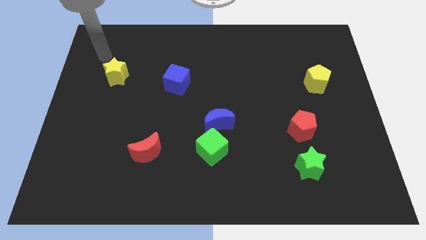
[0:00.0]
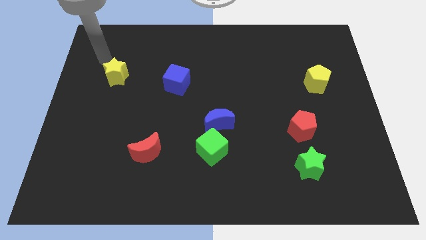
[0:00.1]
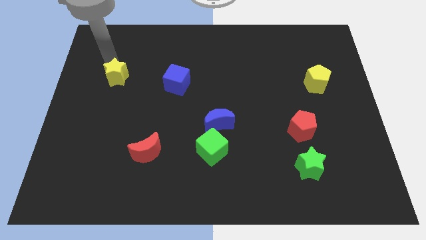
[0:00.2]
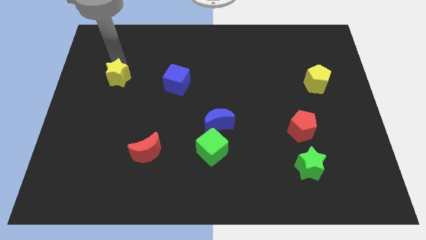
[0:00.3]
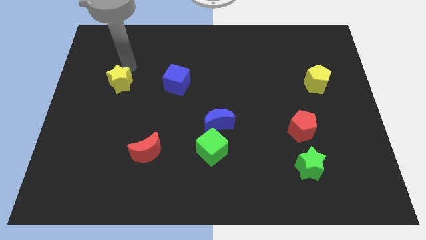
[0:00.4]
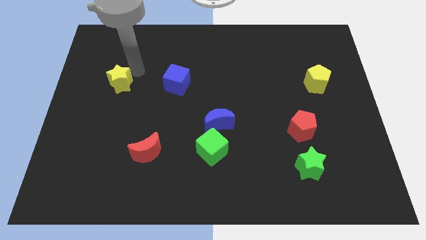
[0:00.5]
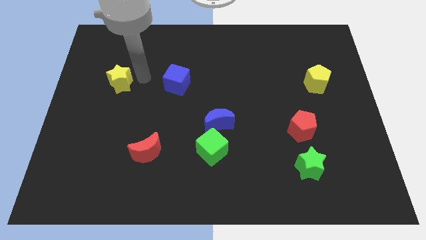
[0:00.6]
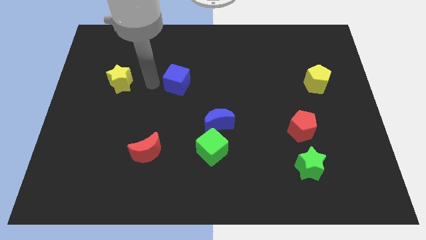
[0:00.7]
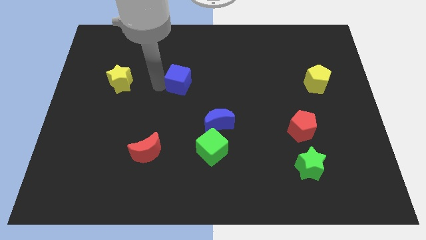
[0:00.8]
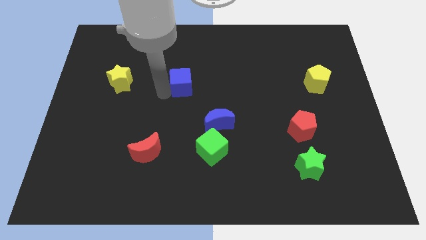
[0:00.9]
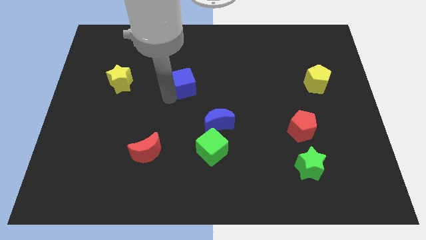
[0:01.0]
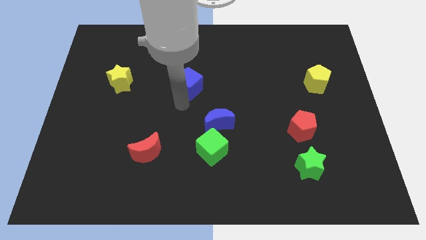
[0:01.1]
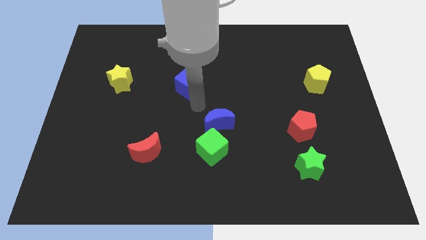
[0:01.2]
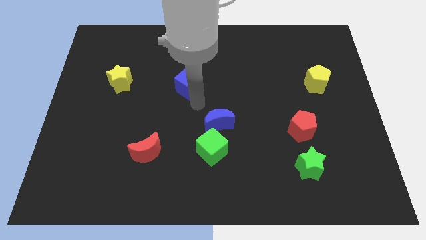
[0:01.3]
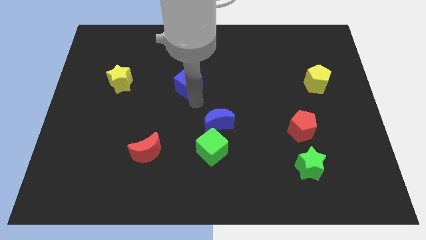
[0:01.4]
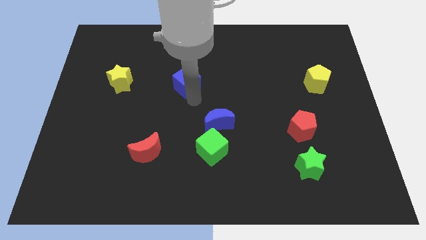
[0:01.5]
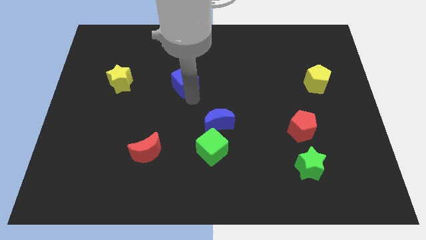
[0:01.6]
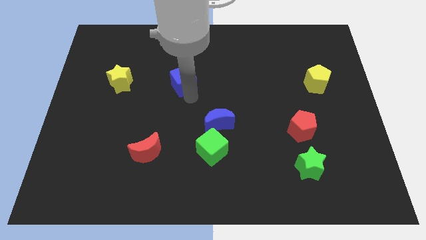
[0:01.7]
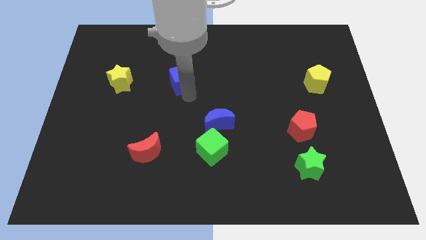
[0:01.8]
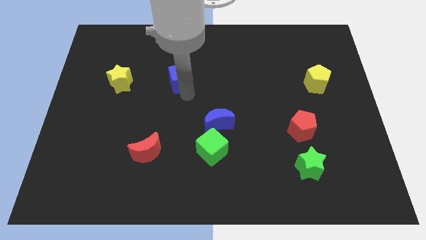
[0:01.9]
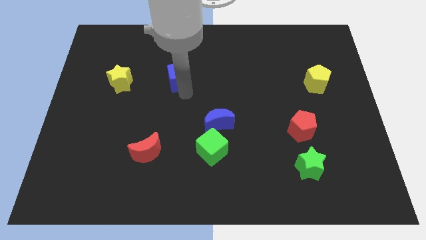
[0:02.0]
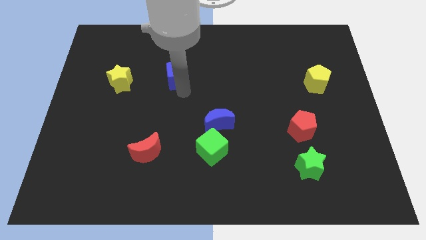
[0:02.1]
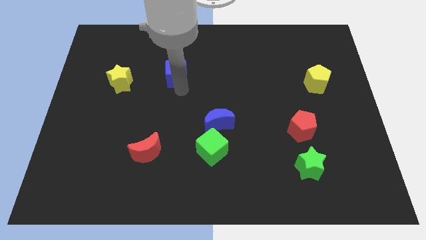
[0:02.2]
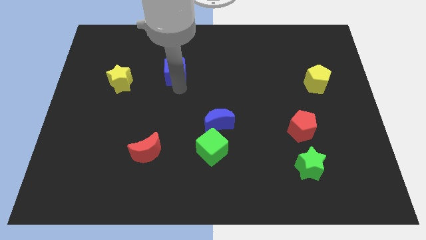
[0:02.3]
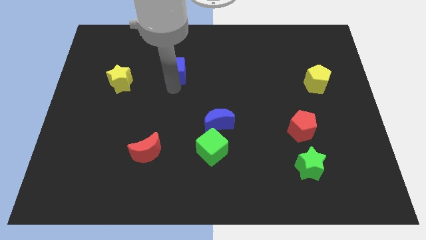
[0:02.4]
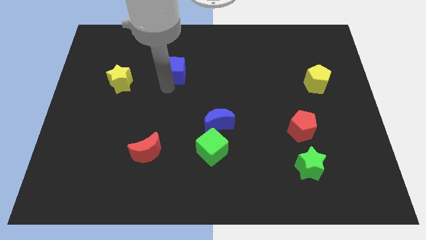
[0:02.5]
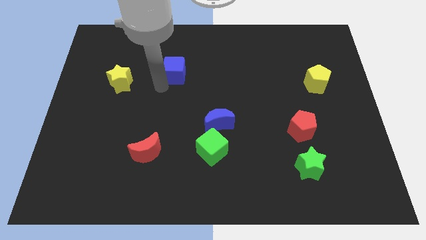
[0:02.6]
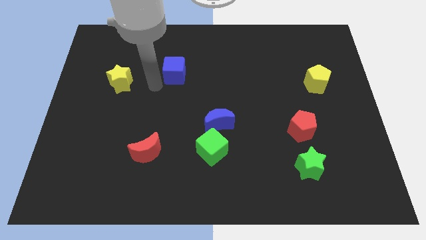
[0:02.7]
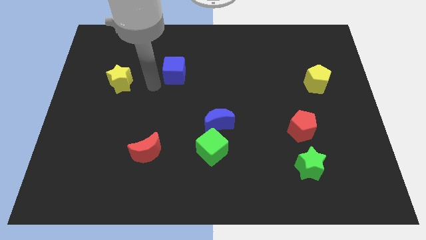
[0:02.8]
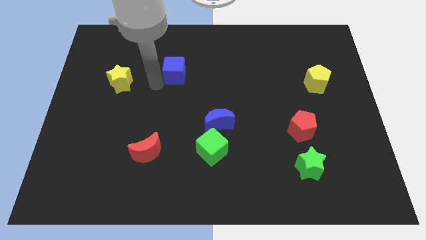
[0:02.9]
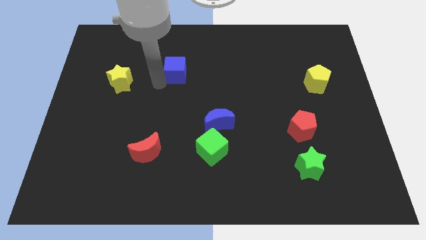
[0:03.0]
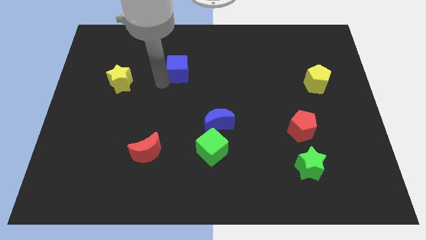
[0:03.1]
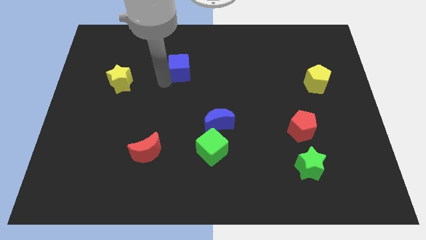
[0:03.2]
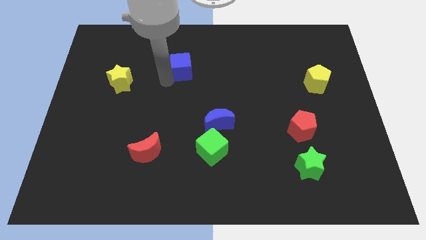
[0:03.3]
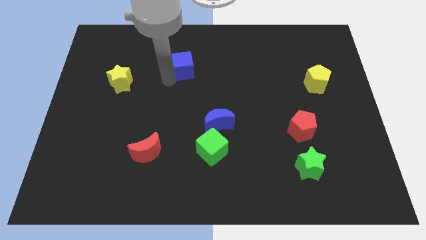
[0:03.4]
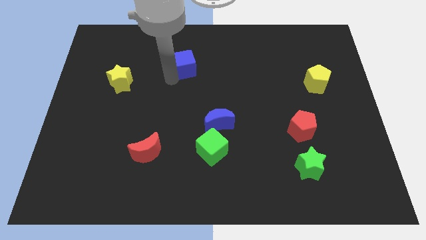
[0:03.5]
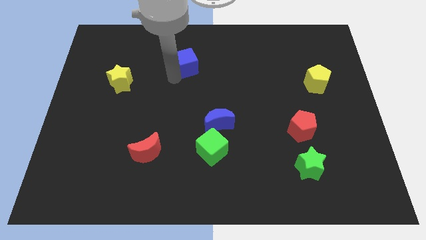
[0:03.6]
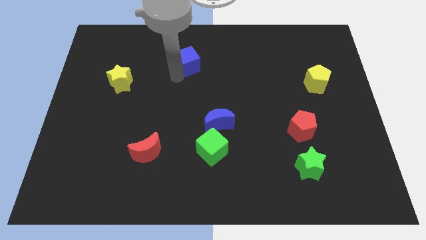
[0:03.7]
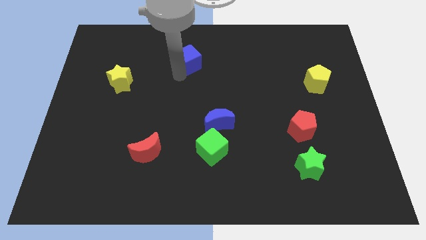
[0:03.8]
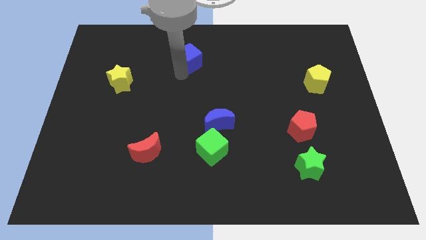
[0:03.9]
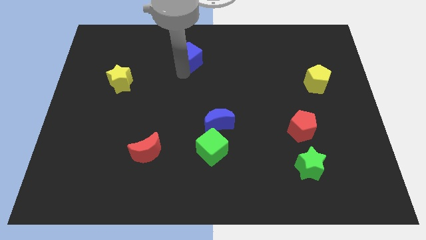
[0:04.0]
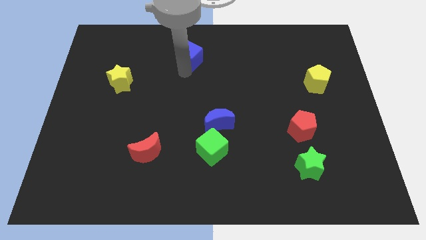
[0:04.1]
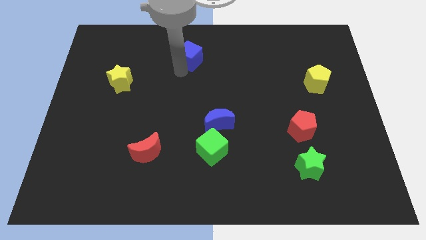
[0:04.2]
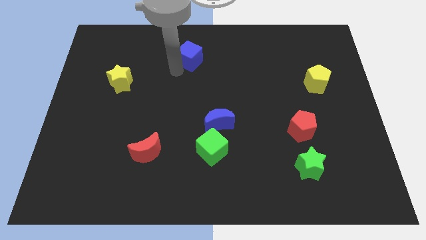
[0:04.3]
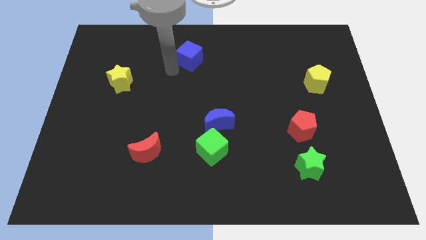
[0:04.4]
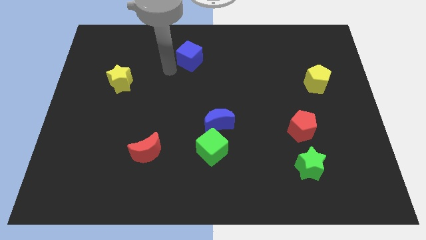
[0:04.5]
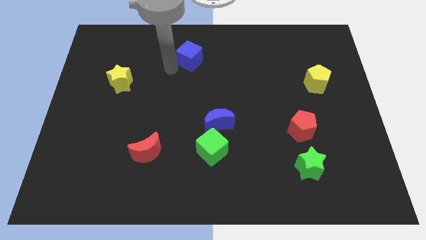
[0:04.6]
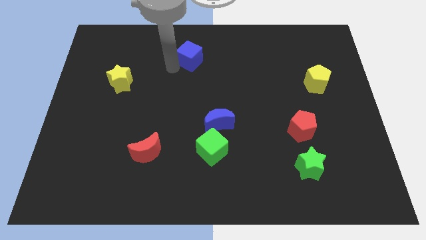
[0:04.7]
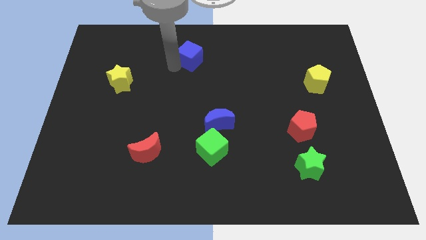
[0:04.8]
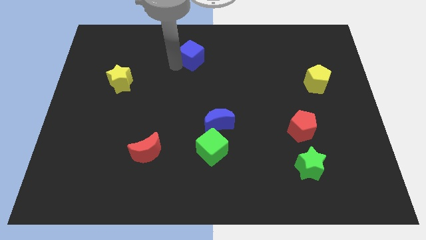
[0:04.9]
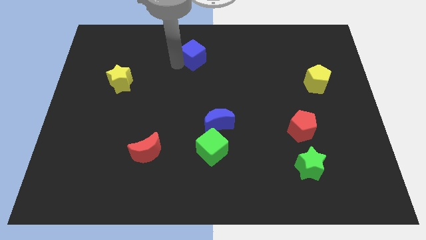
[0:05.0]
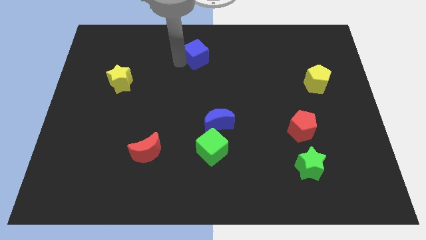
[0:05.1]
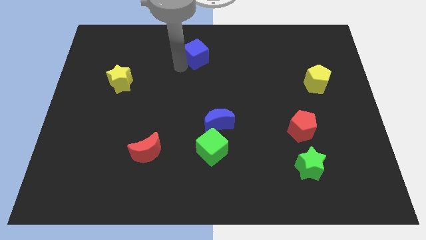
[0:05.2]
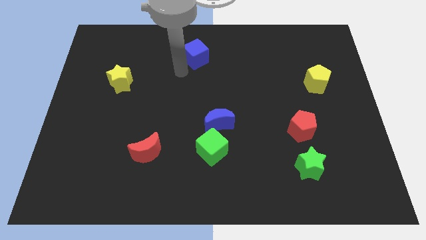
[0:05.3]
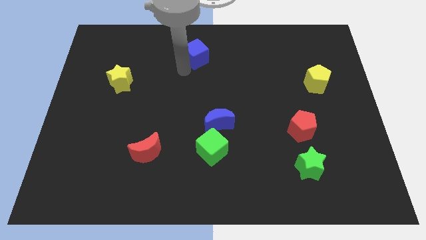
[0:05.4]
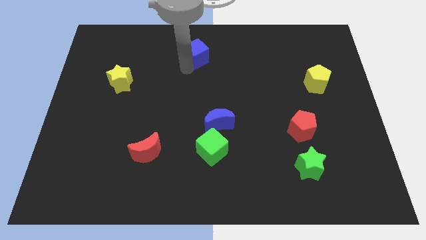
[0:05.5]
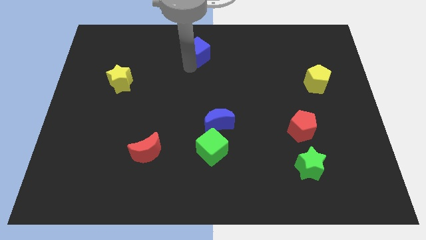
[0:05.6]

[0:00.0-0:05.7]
slide the blue cube to the top side

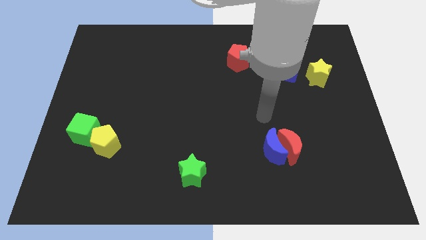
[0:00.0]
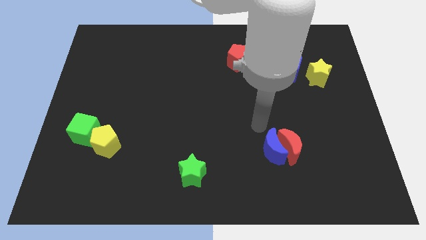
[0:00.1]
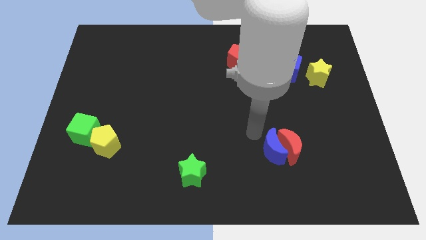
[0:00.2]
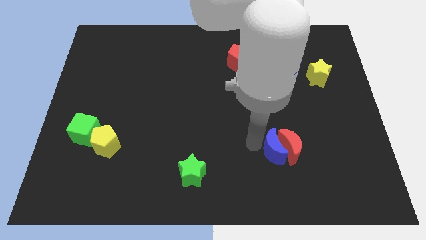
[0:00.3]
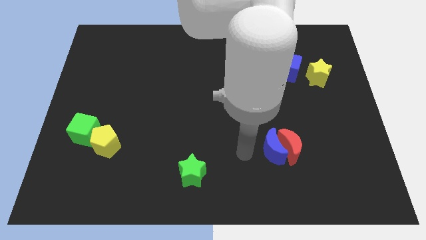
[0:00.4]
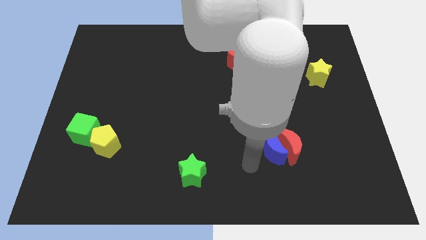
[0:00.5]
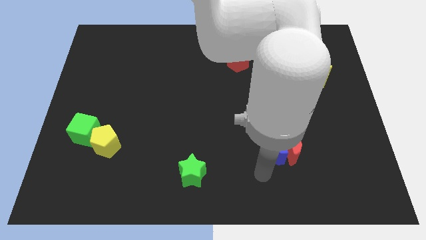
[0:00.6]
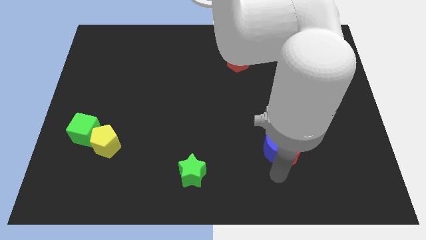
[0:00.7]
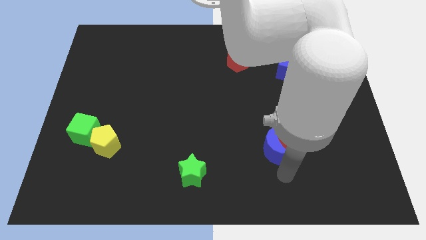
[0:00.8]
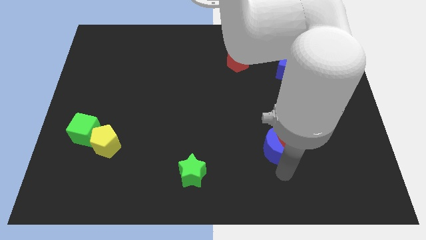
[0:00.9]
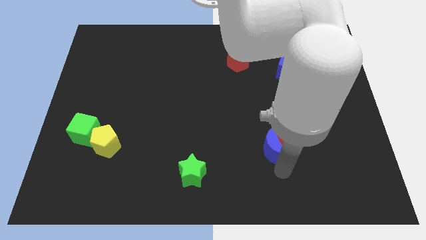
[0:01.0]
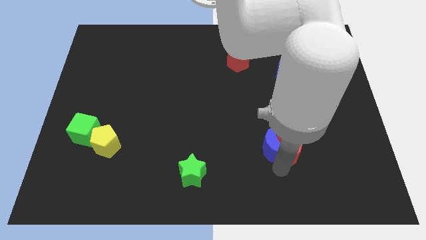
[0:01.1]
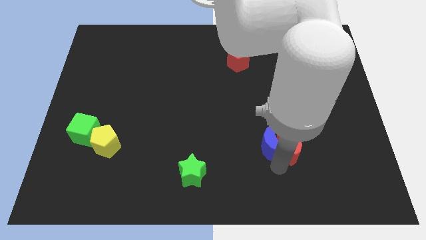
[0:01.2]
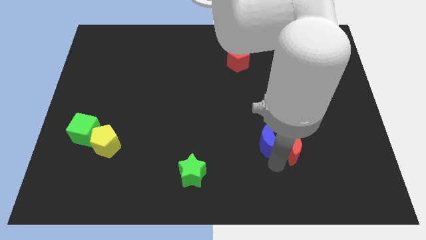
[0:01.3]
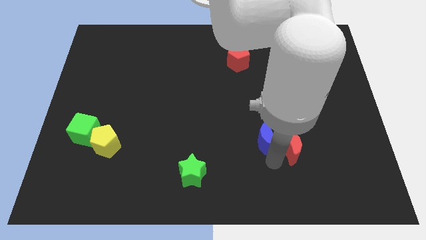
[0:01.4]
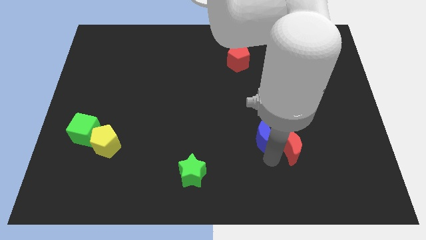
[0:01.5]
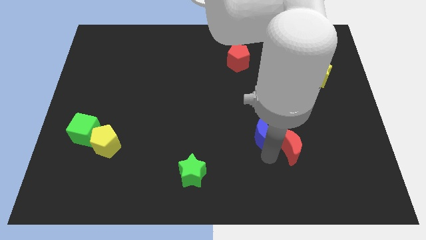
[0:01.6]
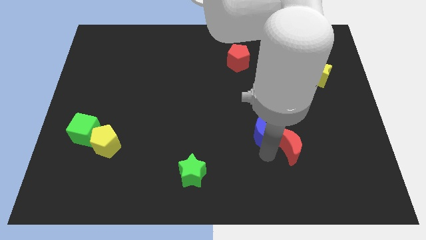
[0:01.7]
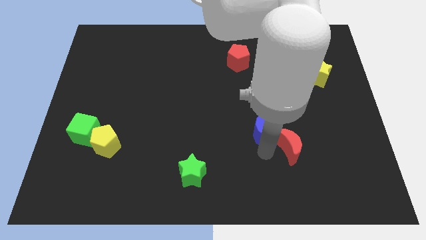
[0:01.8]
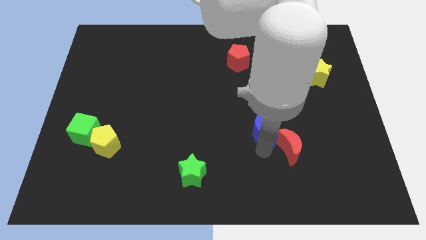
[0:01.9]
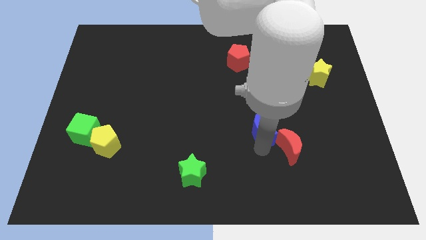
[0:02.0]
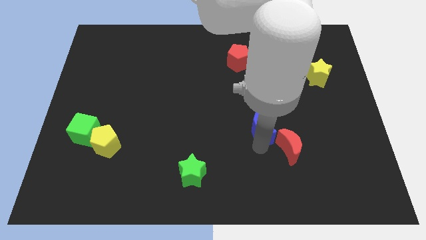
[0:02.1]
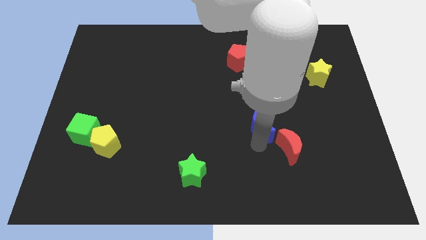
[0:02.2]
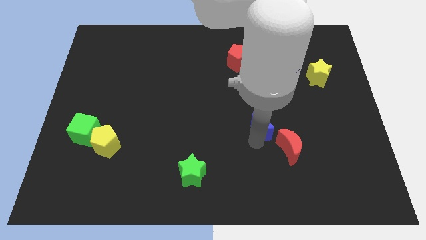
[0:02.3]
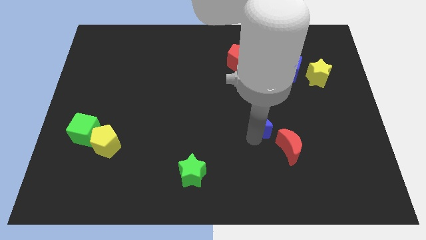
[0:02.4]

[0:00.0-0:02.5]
slide the blue moon to the middle
